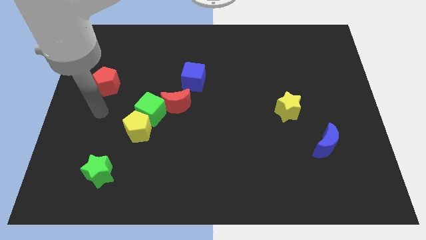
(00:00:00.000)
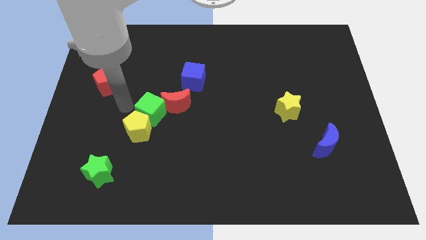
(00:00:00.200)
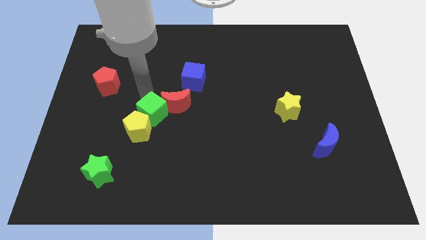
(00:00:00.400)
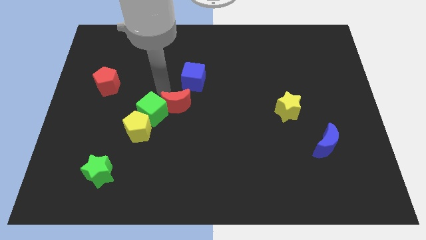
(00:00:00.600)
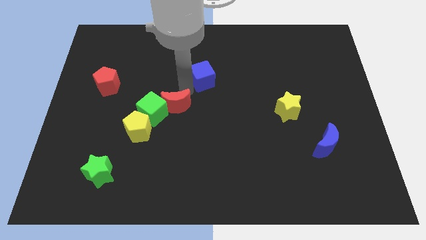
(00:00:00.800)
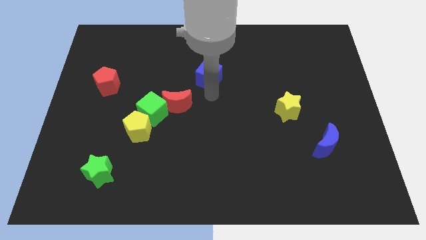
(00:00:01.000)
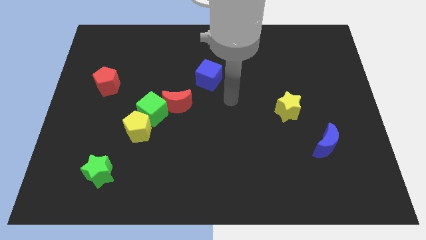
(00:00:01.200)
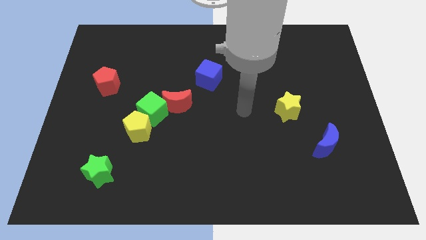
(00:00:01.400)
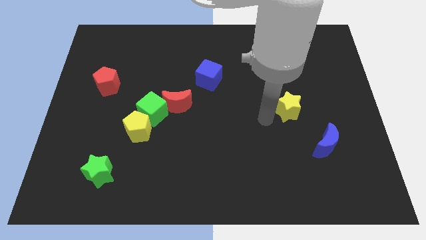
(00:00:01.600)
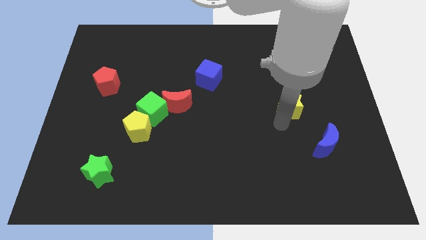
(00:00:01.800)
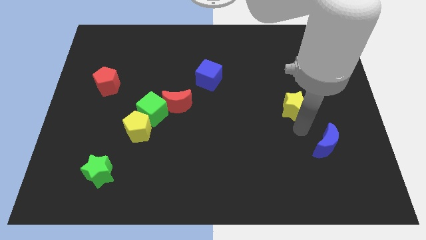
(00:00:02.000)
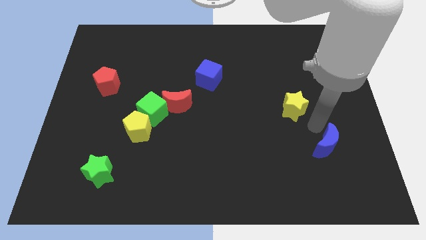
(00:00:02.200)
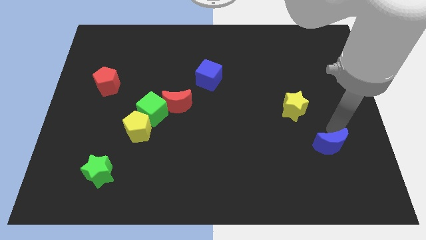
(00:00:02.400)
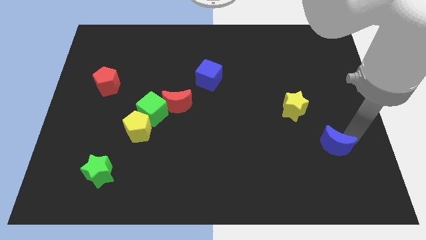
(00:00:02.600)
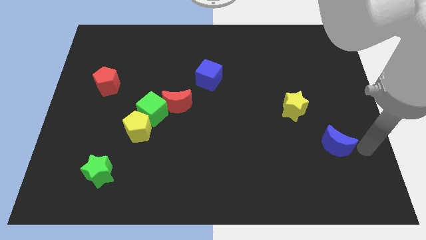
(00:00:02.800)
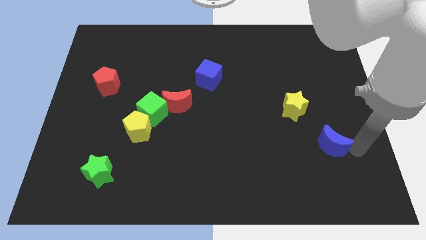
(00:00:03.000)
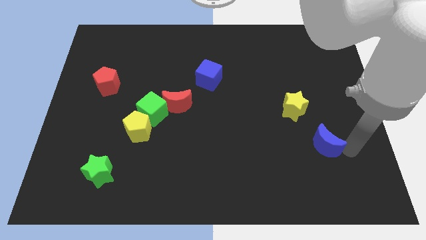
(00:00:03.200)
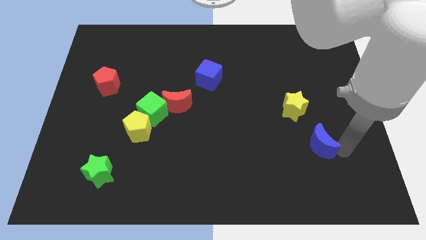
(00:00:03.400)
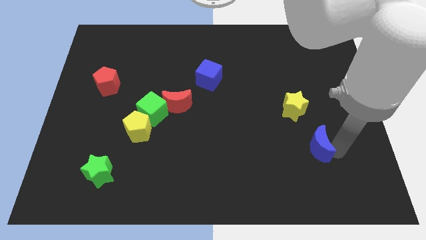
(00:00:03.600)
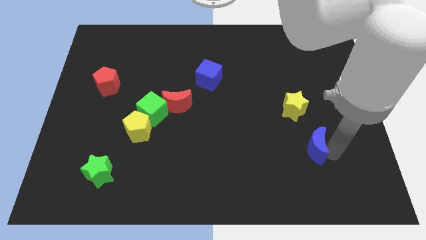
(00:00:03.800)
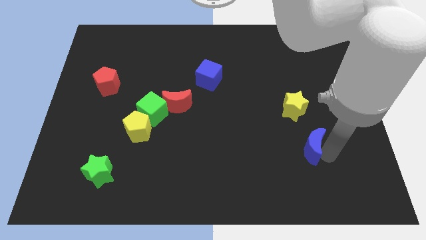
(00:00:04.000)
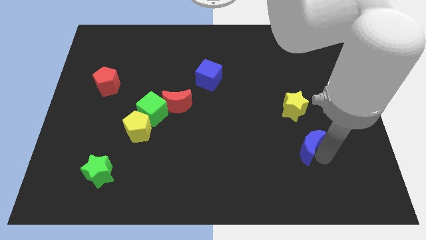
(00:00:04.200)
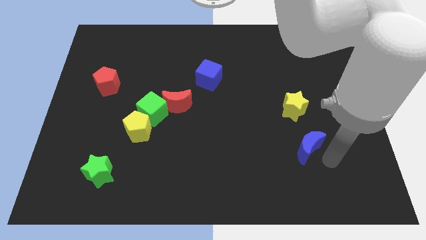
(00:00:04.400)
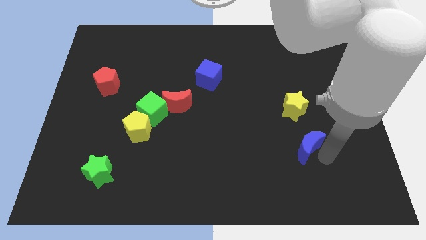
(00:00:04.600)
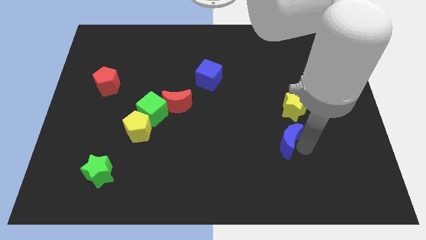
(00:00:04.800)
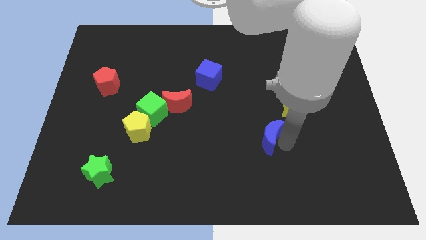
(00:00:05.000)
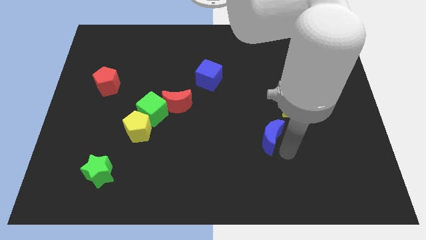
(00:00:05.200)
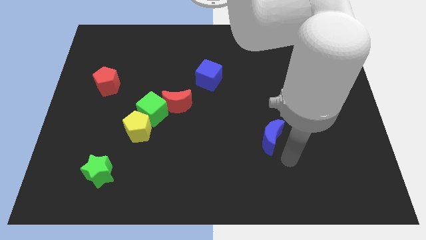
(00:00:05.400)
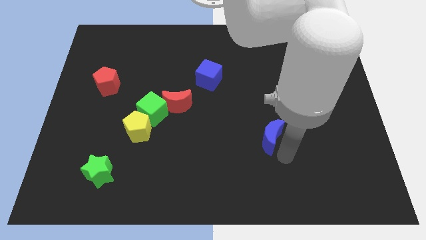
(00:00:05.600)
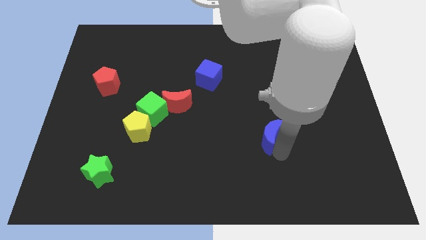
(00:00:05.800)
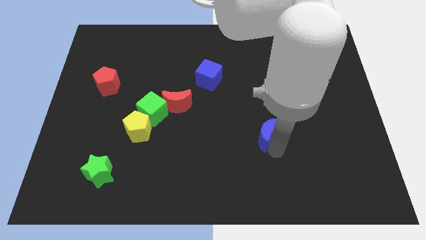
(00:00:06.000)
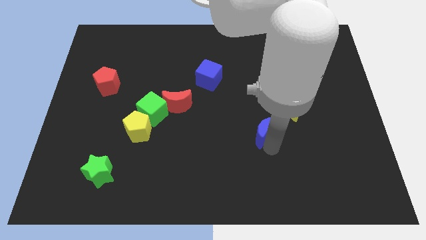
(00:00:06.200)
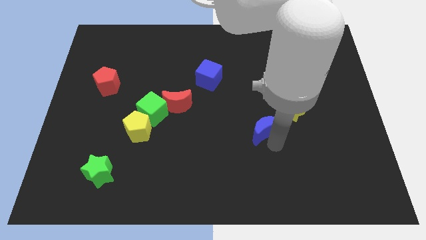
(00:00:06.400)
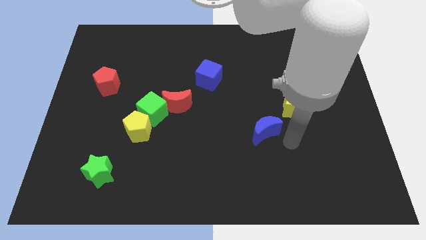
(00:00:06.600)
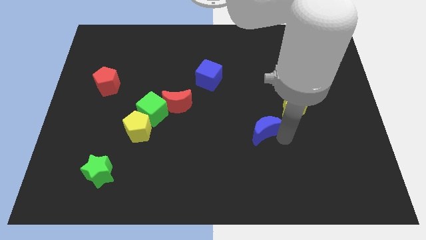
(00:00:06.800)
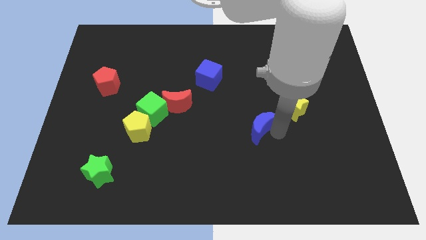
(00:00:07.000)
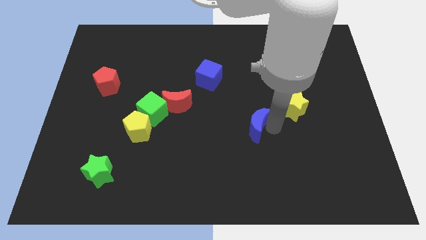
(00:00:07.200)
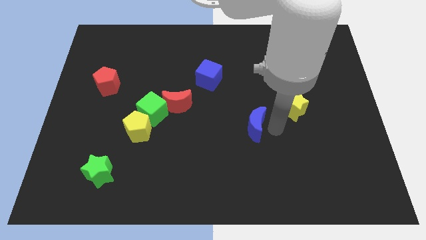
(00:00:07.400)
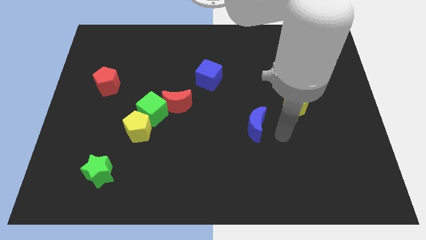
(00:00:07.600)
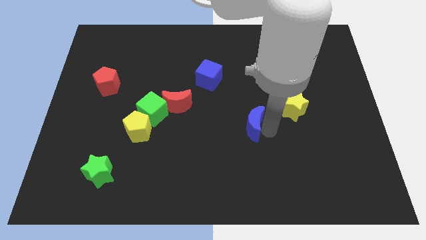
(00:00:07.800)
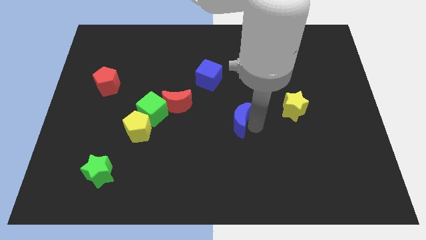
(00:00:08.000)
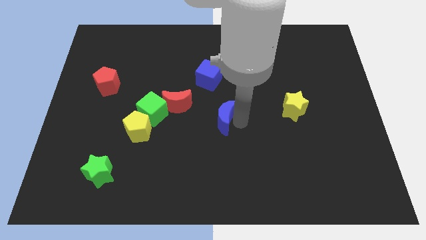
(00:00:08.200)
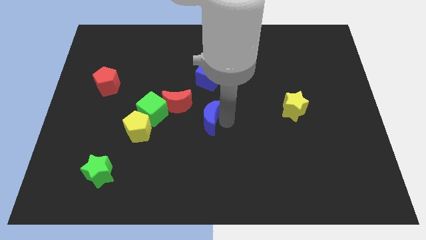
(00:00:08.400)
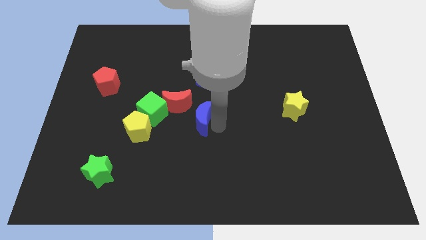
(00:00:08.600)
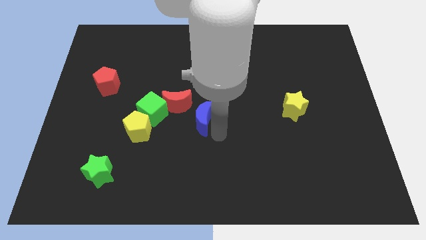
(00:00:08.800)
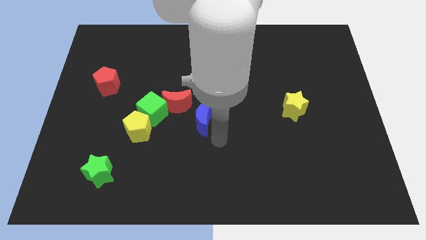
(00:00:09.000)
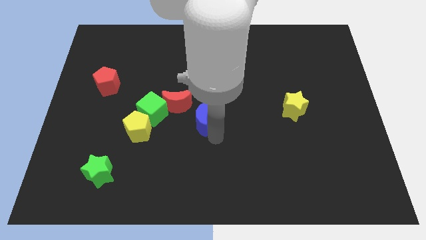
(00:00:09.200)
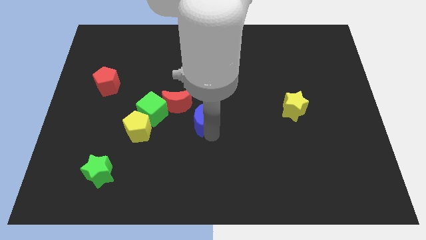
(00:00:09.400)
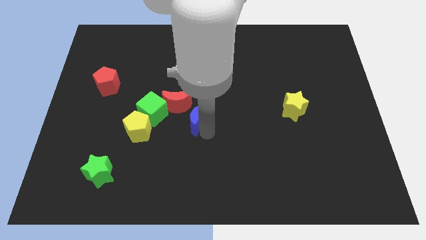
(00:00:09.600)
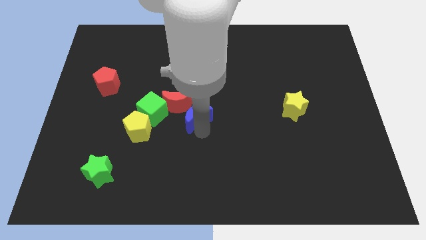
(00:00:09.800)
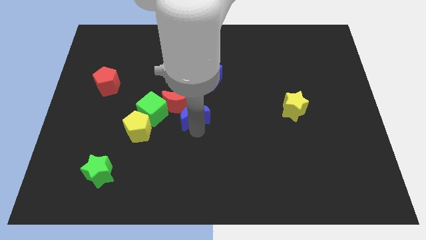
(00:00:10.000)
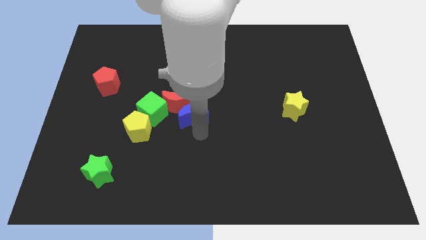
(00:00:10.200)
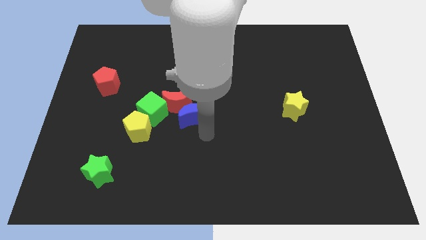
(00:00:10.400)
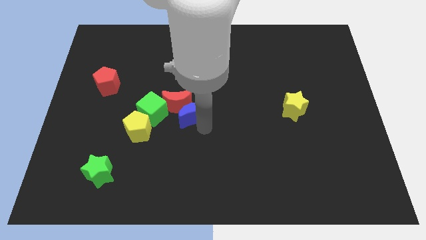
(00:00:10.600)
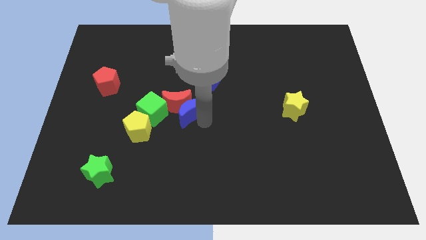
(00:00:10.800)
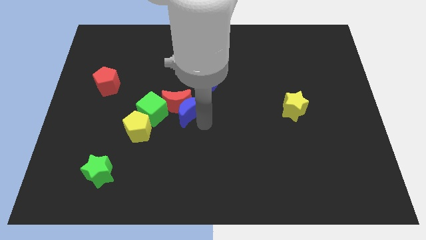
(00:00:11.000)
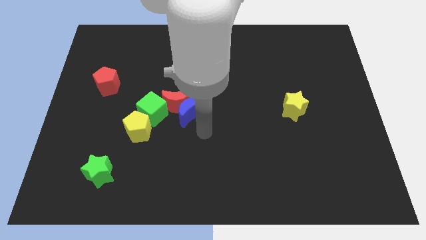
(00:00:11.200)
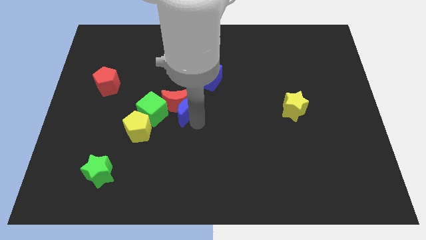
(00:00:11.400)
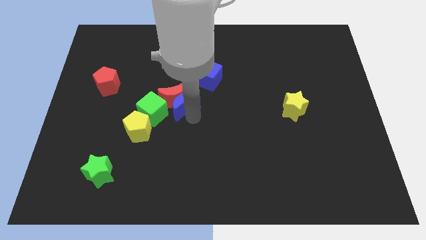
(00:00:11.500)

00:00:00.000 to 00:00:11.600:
move the blue moon diagonally up and to the right of the green cube

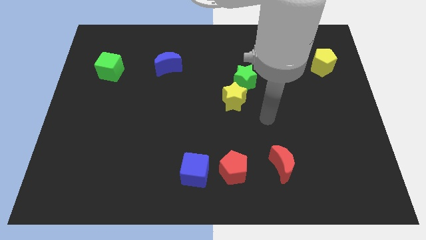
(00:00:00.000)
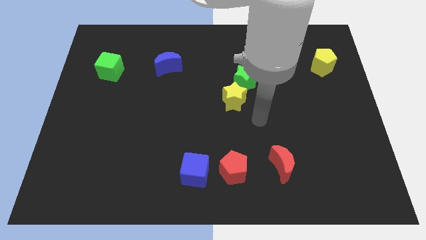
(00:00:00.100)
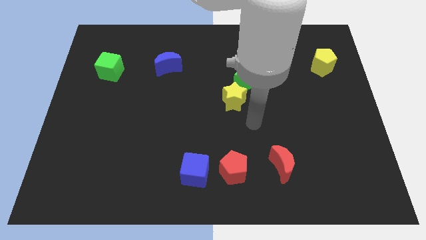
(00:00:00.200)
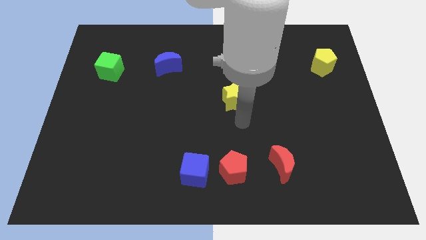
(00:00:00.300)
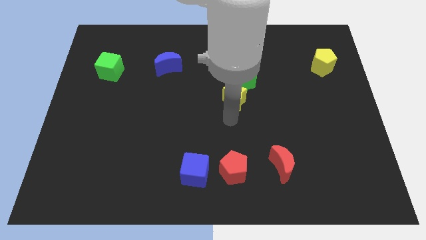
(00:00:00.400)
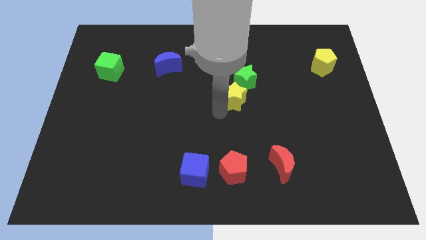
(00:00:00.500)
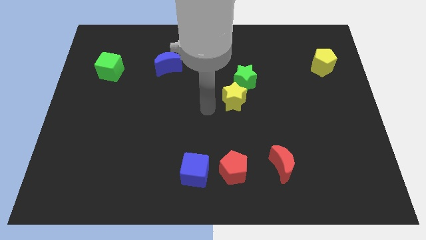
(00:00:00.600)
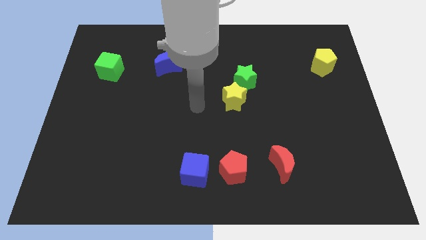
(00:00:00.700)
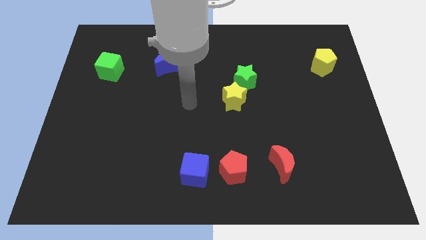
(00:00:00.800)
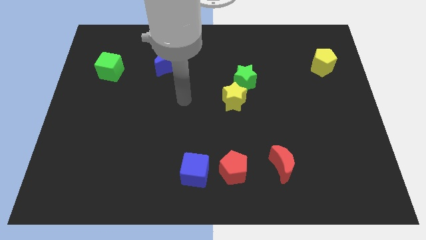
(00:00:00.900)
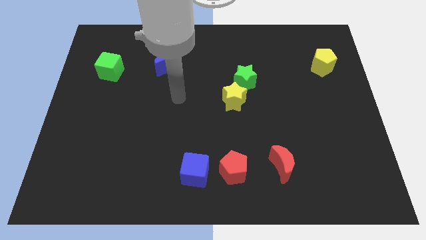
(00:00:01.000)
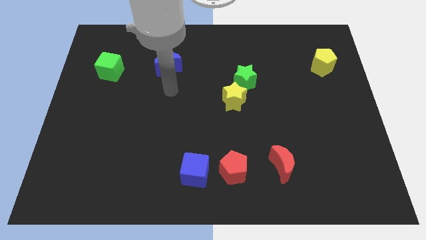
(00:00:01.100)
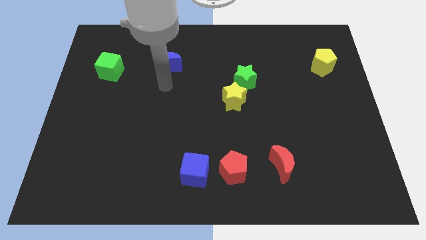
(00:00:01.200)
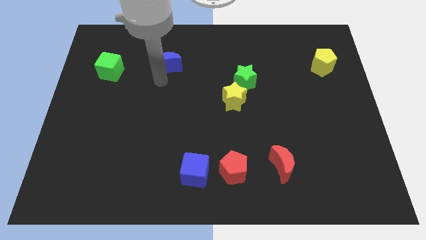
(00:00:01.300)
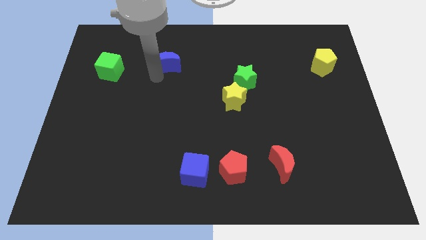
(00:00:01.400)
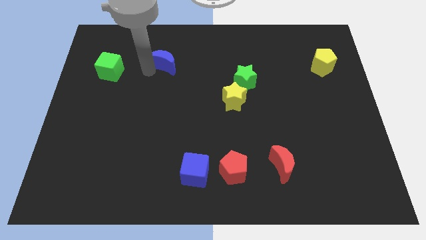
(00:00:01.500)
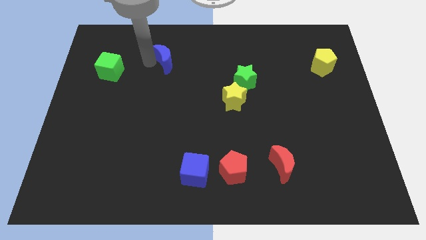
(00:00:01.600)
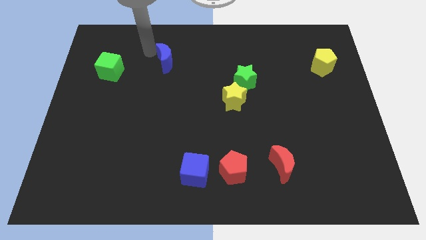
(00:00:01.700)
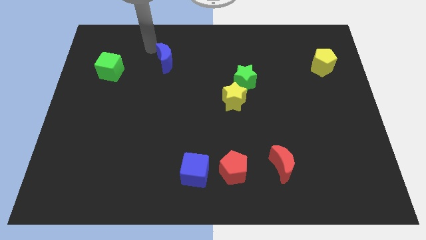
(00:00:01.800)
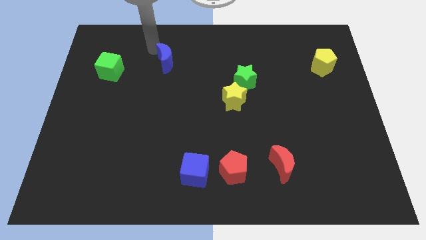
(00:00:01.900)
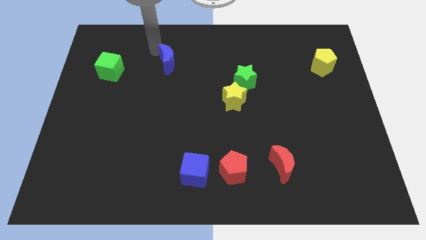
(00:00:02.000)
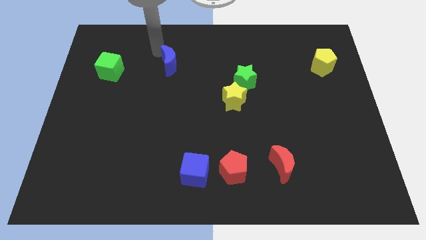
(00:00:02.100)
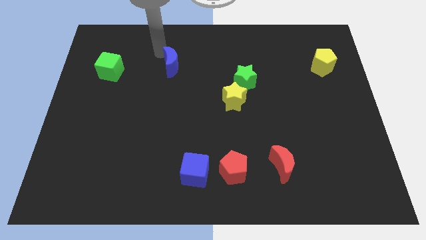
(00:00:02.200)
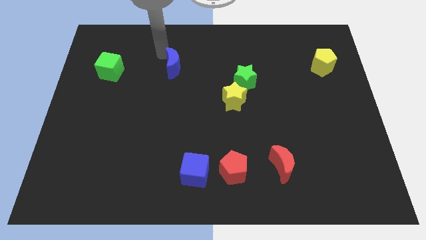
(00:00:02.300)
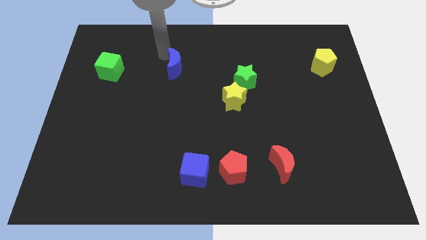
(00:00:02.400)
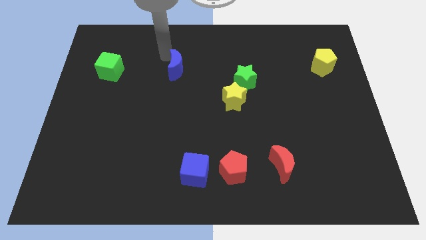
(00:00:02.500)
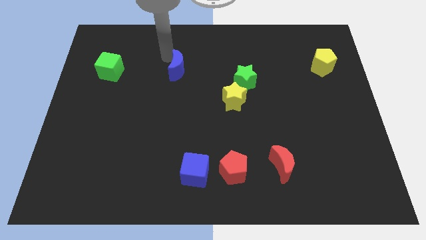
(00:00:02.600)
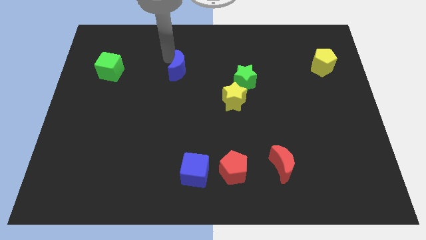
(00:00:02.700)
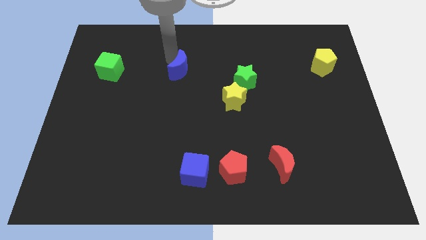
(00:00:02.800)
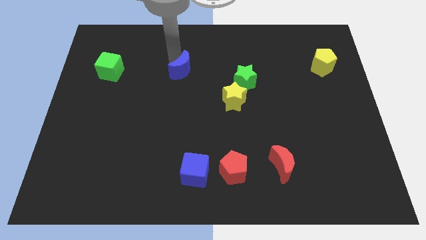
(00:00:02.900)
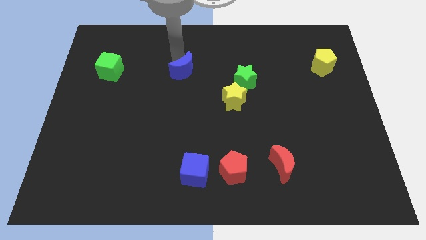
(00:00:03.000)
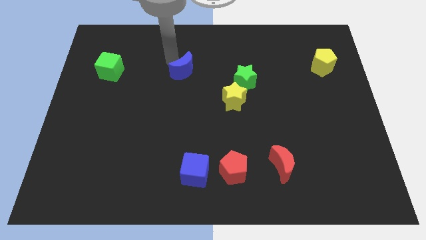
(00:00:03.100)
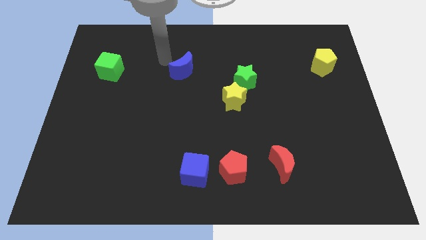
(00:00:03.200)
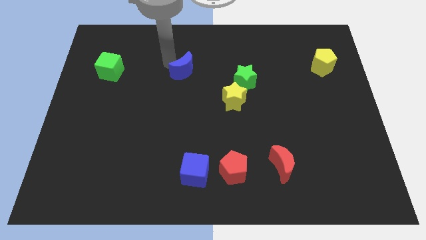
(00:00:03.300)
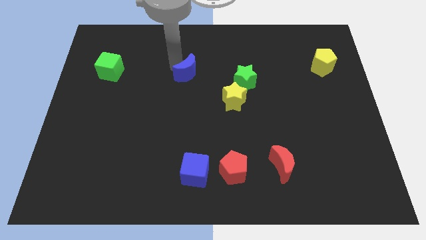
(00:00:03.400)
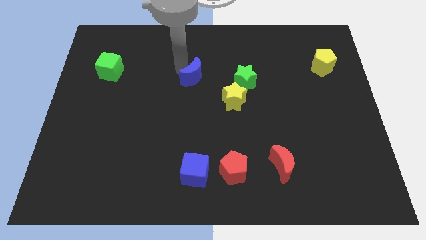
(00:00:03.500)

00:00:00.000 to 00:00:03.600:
slide the blue moon to the top left side of the yellow star
